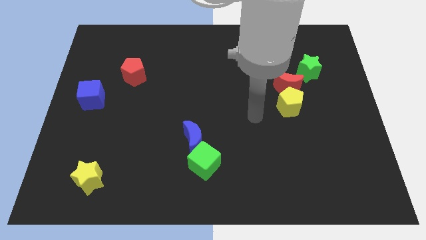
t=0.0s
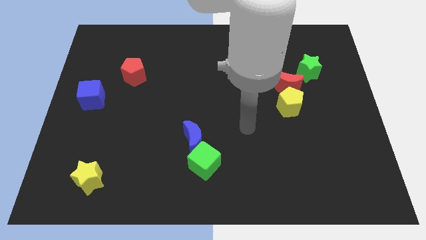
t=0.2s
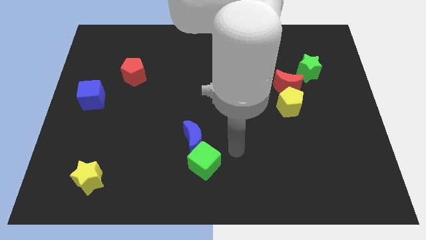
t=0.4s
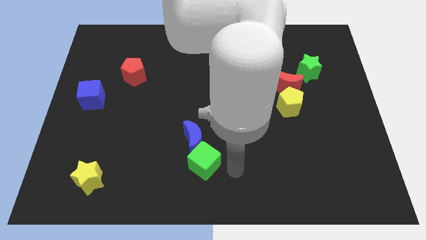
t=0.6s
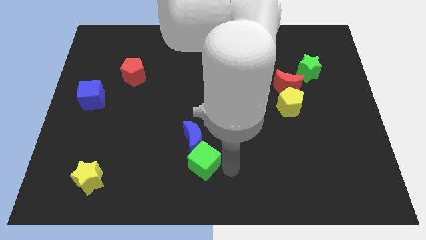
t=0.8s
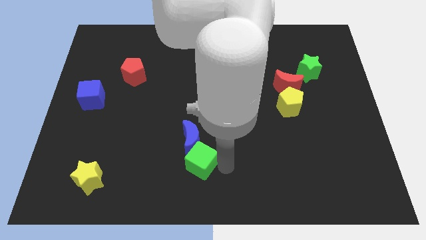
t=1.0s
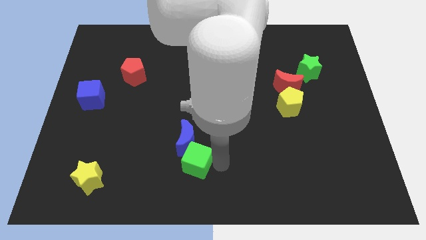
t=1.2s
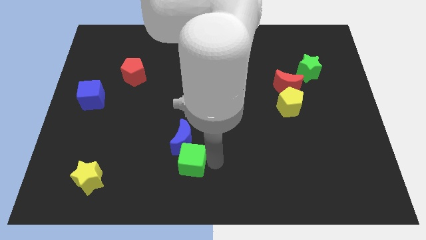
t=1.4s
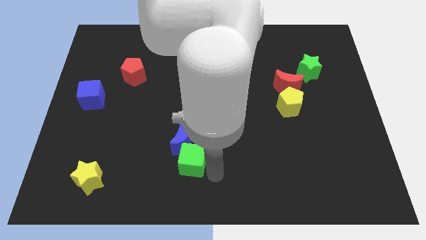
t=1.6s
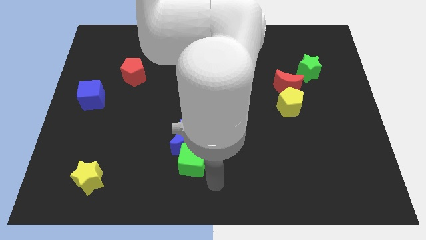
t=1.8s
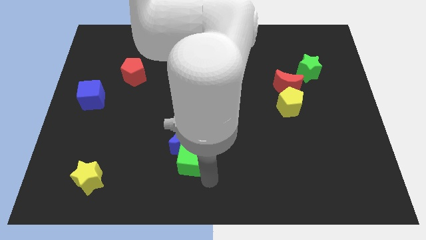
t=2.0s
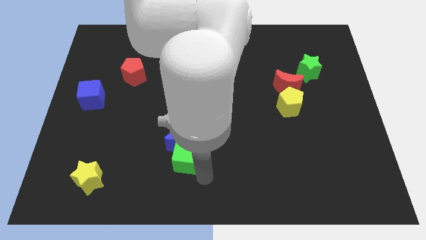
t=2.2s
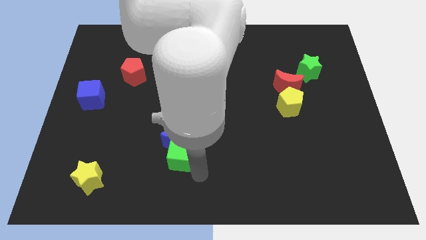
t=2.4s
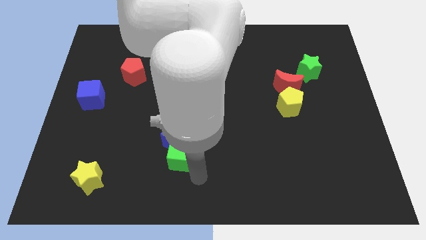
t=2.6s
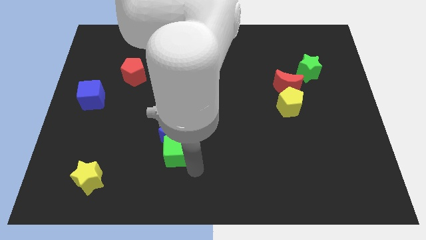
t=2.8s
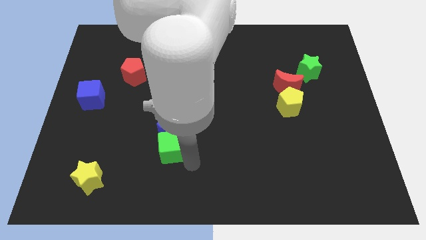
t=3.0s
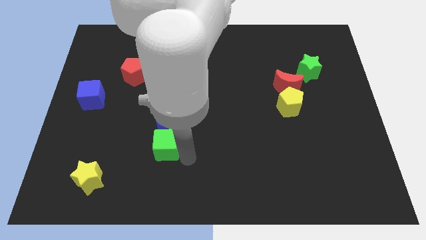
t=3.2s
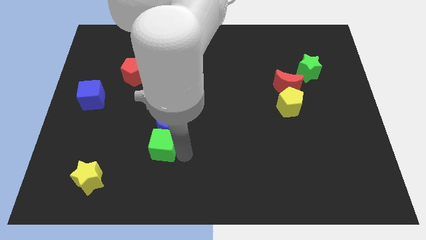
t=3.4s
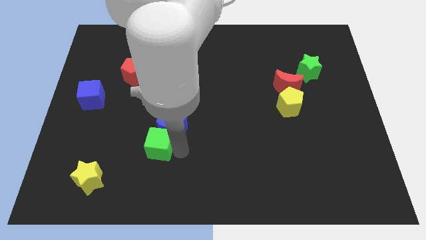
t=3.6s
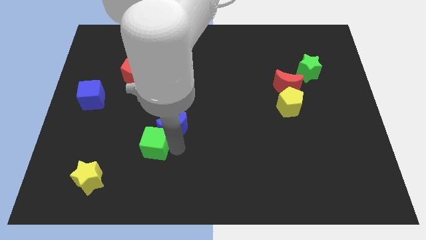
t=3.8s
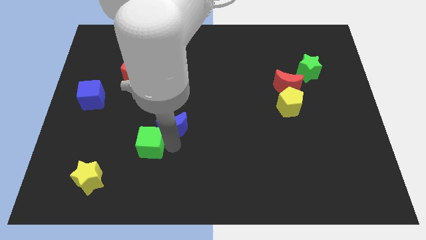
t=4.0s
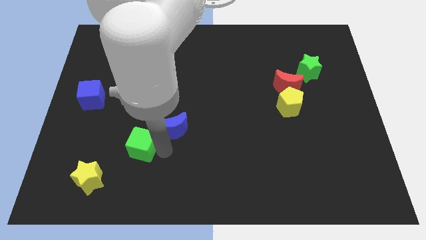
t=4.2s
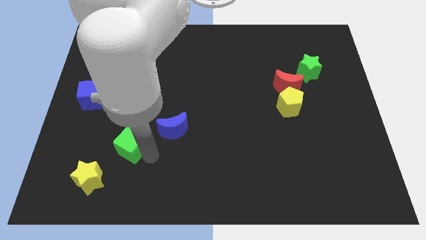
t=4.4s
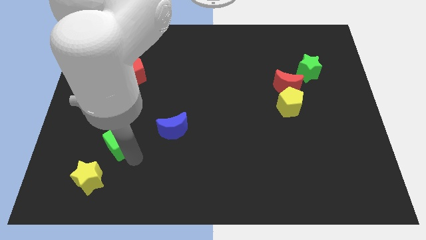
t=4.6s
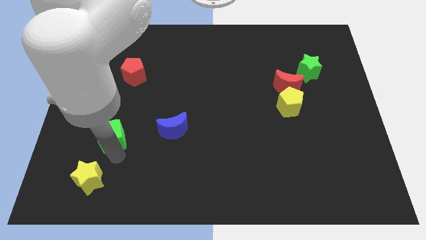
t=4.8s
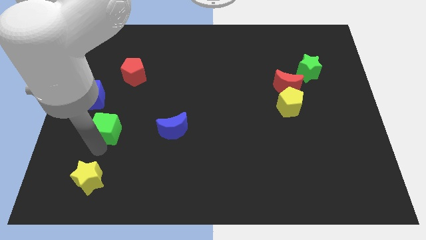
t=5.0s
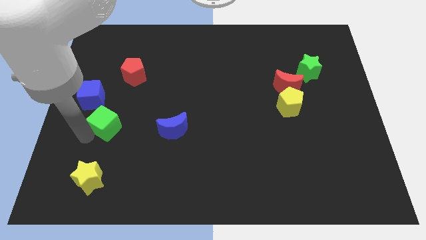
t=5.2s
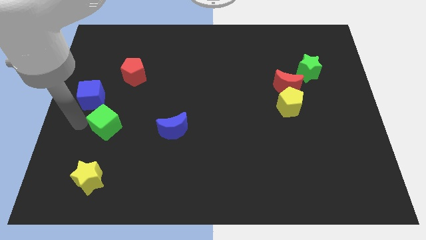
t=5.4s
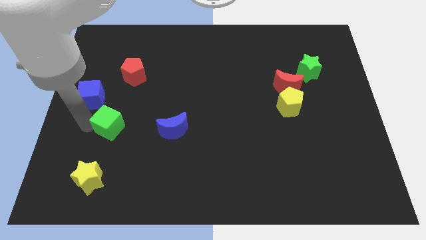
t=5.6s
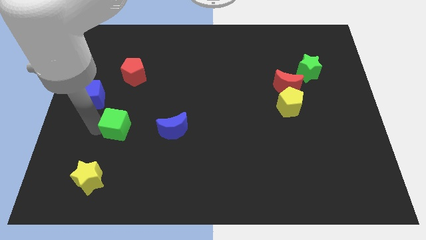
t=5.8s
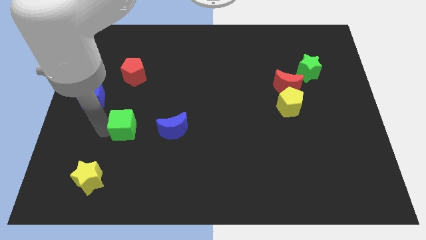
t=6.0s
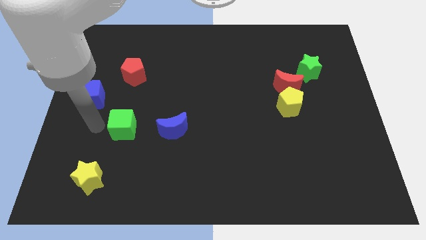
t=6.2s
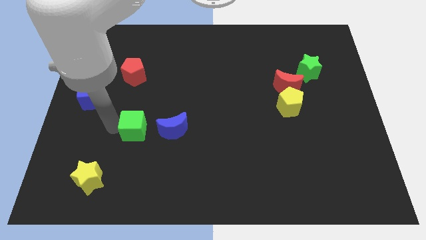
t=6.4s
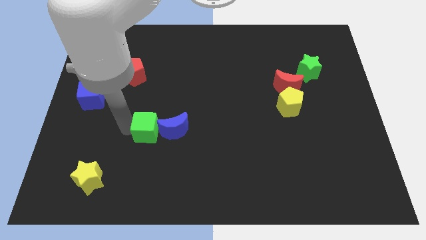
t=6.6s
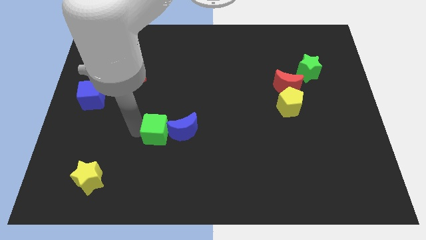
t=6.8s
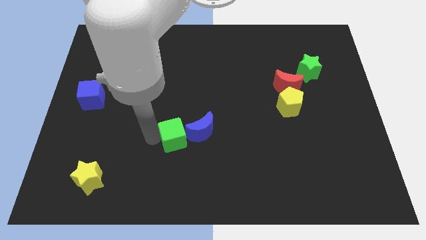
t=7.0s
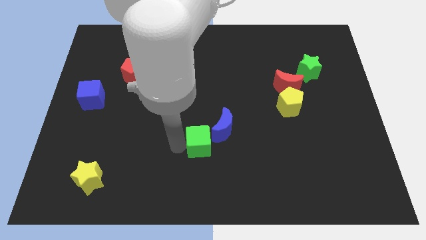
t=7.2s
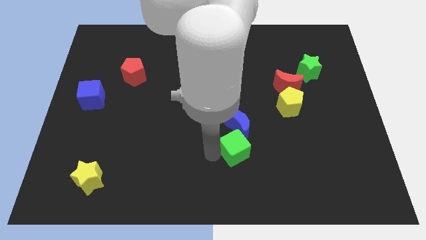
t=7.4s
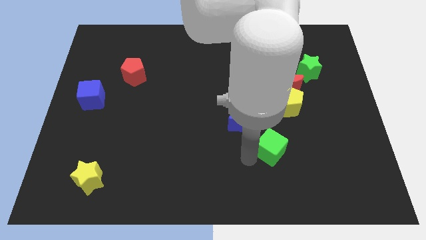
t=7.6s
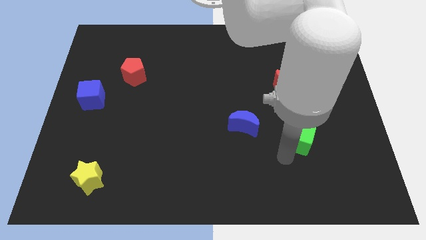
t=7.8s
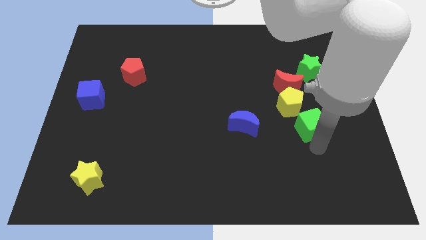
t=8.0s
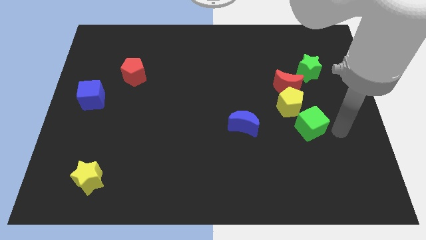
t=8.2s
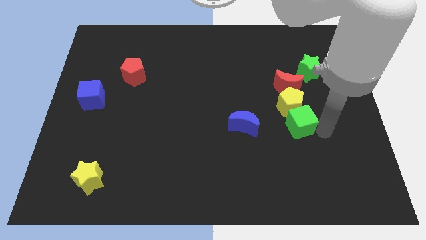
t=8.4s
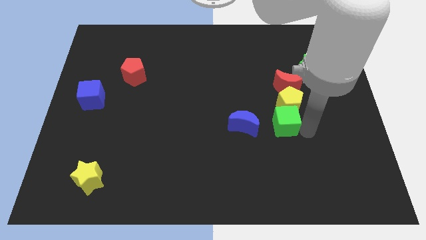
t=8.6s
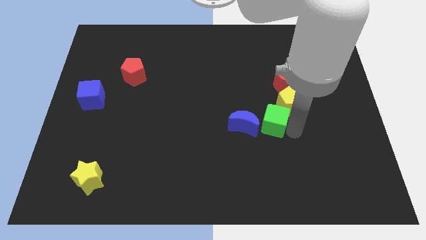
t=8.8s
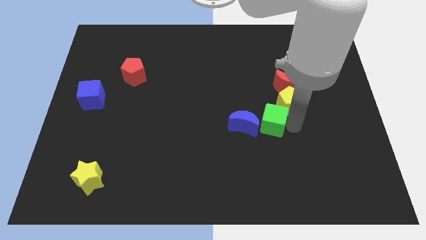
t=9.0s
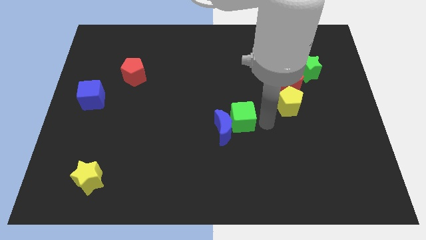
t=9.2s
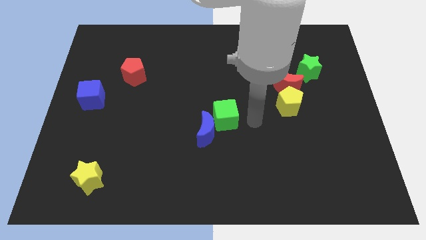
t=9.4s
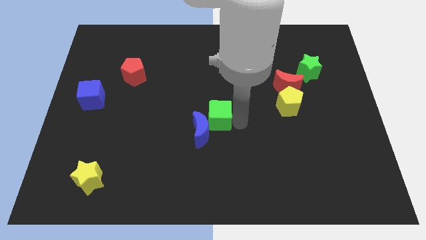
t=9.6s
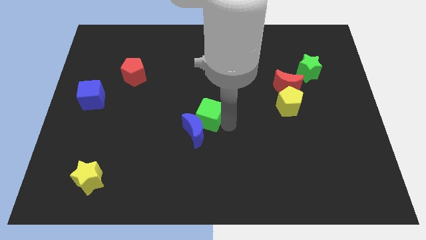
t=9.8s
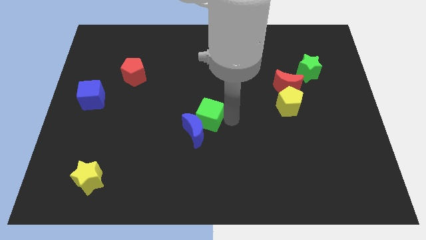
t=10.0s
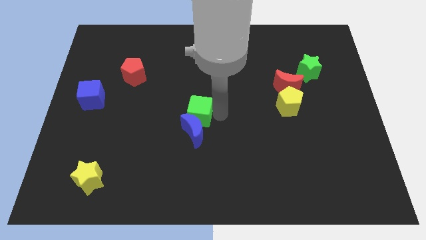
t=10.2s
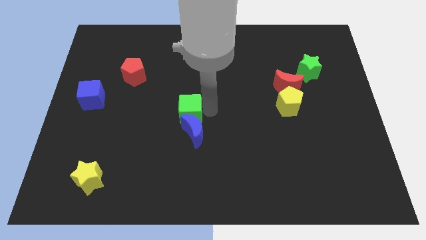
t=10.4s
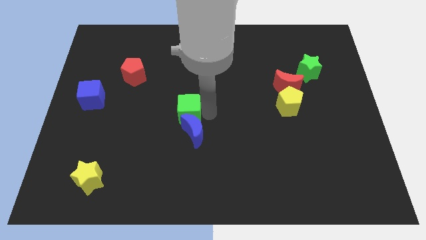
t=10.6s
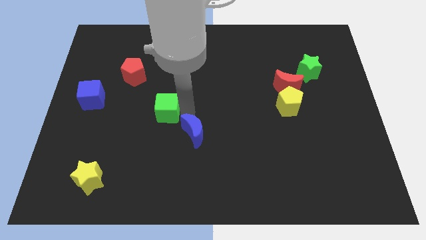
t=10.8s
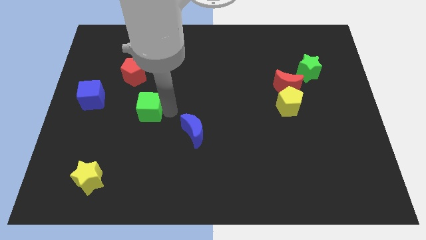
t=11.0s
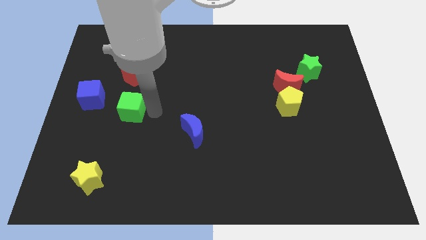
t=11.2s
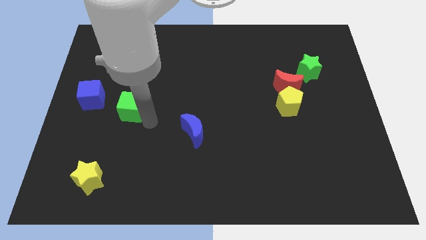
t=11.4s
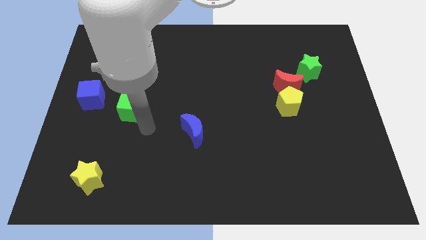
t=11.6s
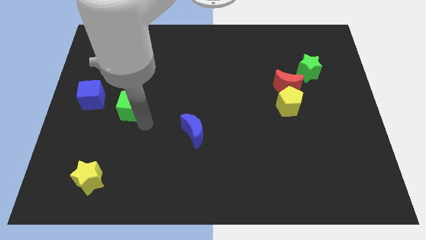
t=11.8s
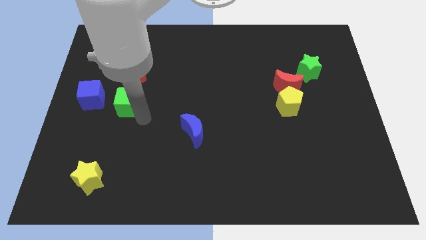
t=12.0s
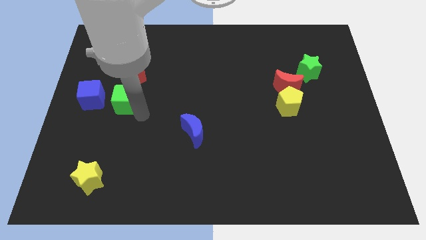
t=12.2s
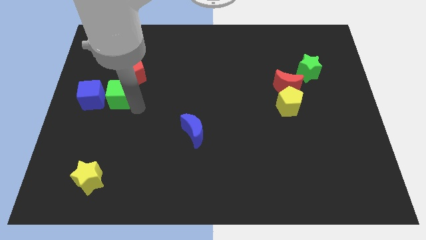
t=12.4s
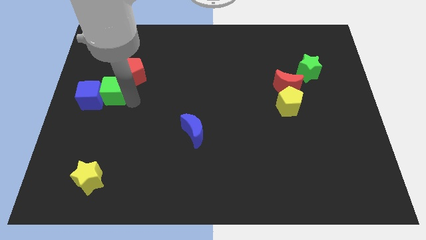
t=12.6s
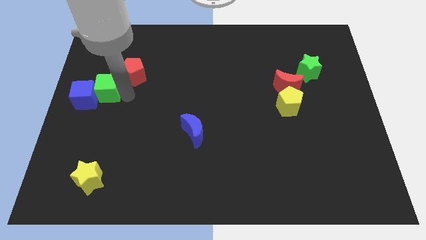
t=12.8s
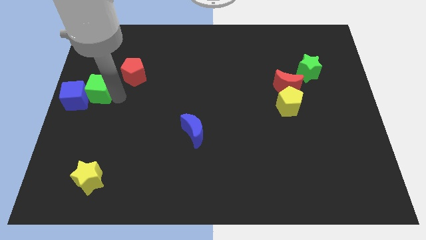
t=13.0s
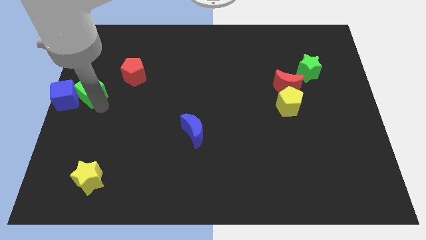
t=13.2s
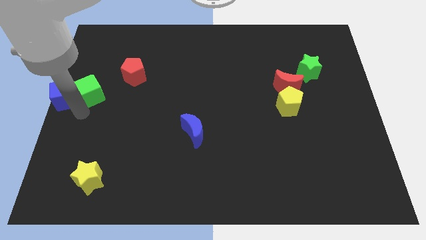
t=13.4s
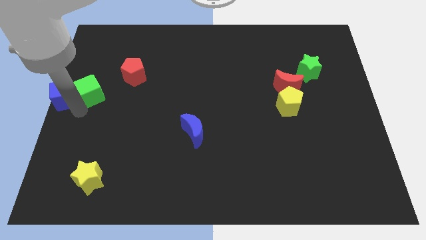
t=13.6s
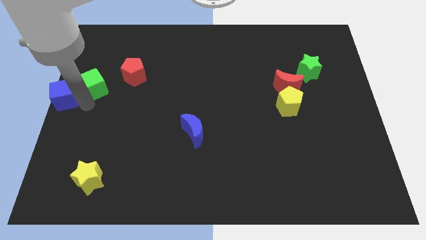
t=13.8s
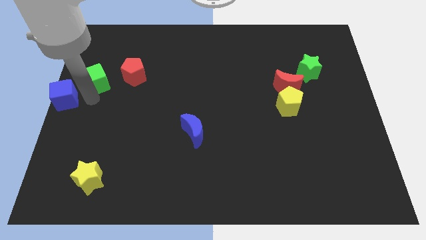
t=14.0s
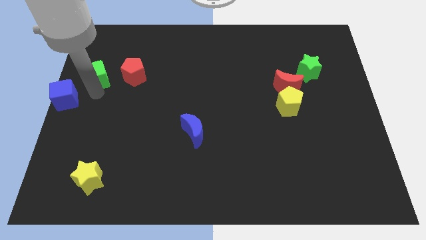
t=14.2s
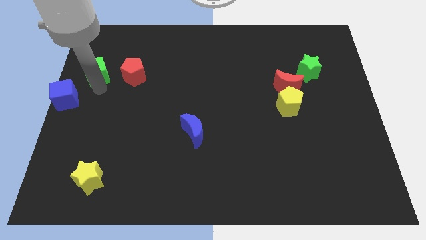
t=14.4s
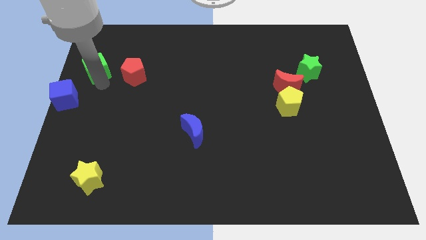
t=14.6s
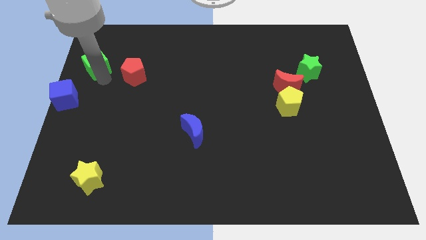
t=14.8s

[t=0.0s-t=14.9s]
move the green cube to the top left side of the red pentagon
